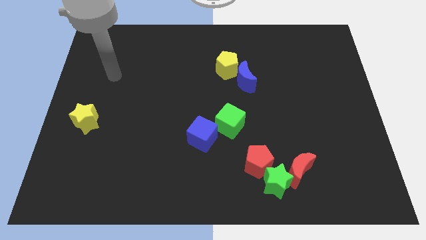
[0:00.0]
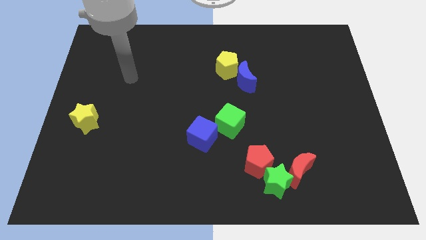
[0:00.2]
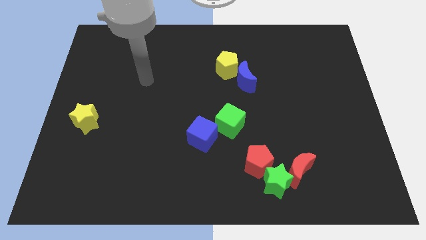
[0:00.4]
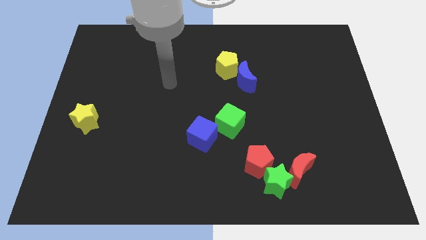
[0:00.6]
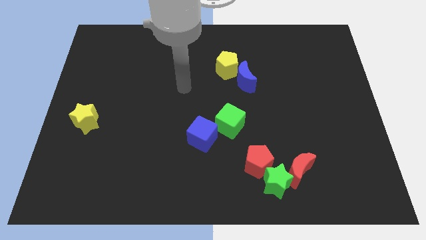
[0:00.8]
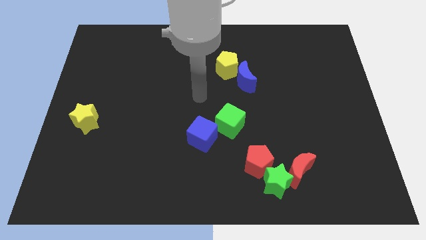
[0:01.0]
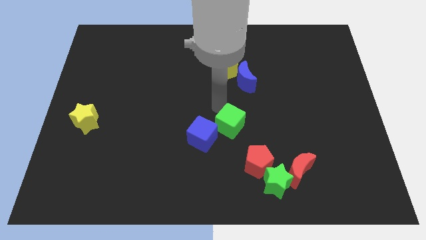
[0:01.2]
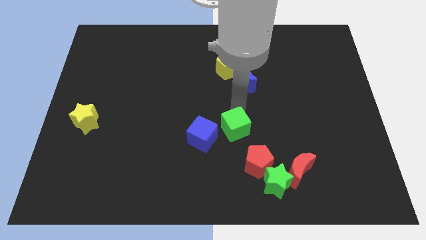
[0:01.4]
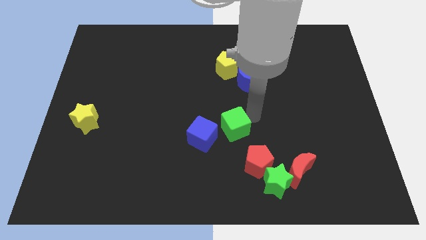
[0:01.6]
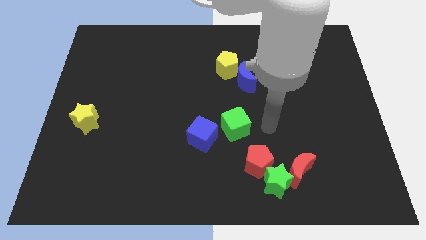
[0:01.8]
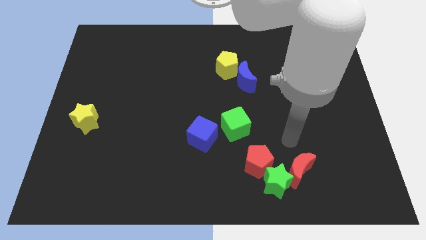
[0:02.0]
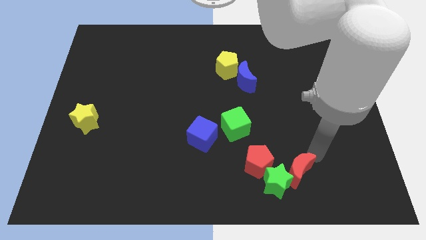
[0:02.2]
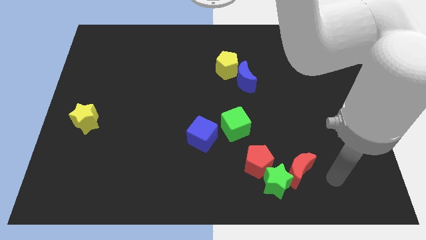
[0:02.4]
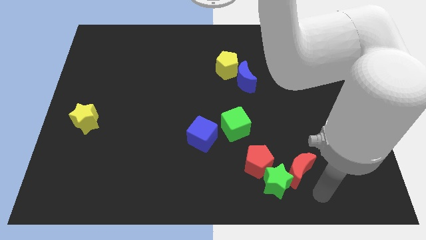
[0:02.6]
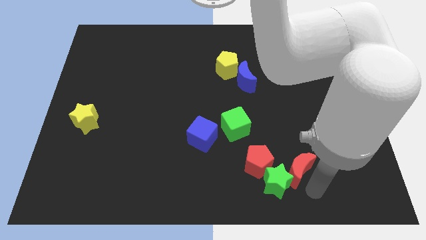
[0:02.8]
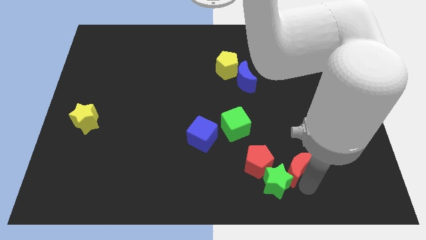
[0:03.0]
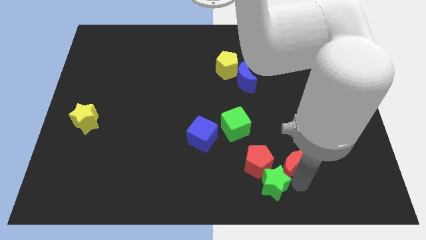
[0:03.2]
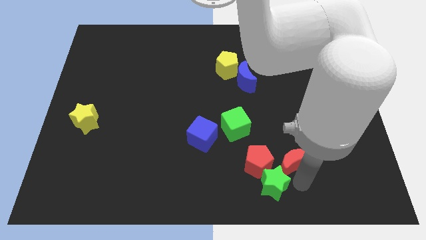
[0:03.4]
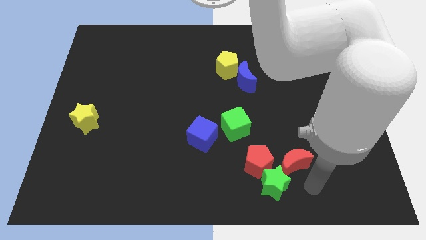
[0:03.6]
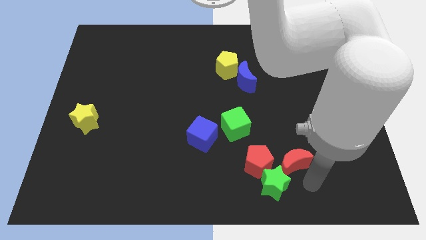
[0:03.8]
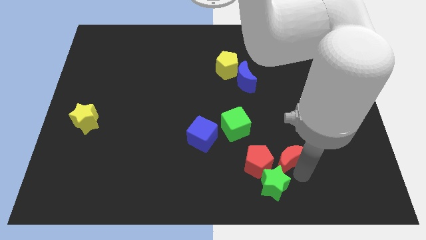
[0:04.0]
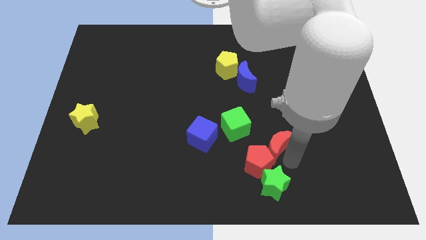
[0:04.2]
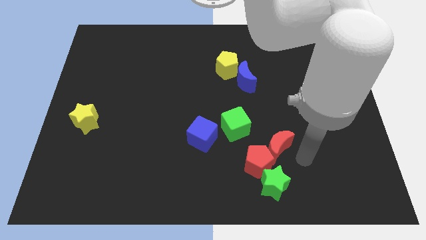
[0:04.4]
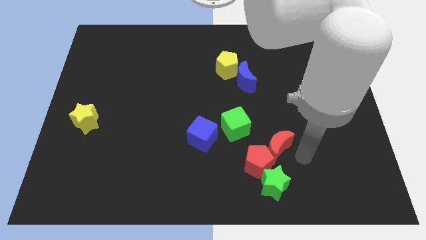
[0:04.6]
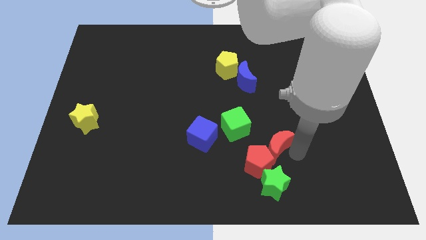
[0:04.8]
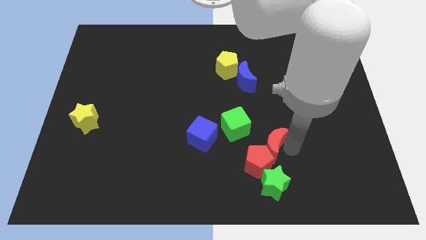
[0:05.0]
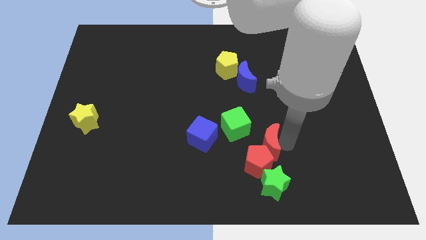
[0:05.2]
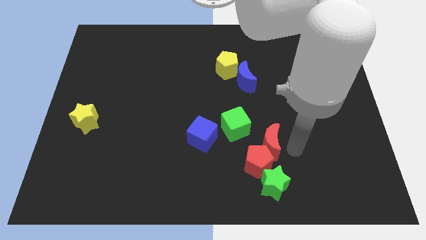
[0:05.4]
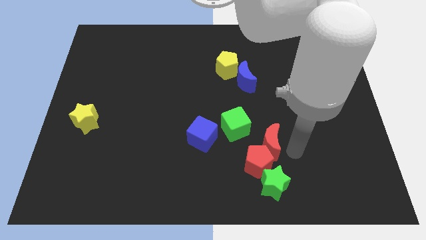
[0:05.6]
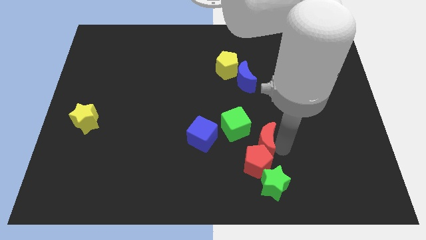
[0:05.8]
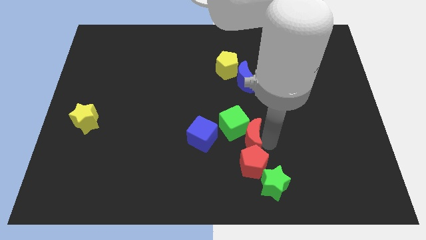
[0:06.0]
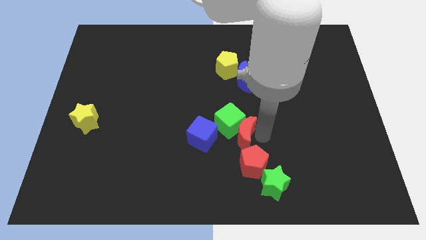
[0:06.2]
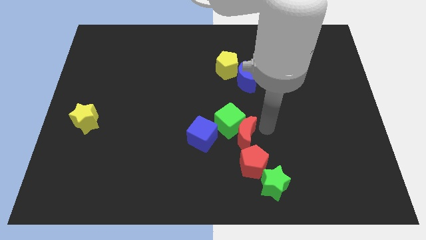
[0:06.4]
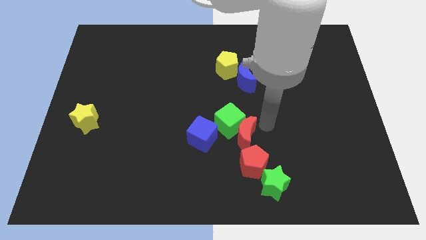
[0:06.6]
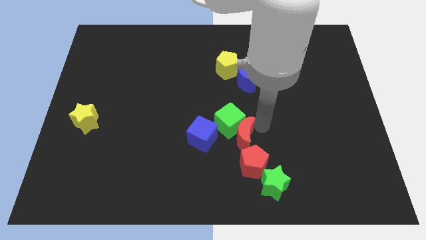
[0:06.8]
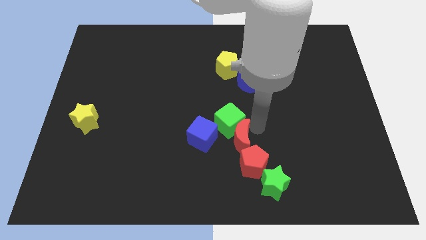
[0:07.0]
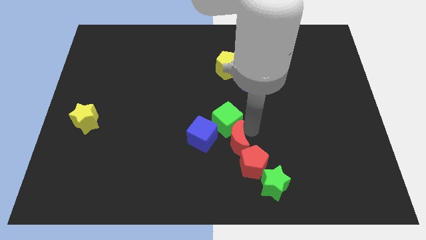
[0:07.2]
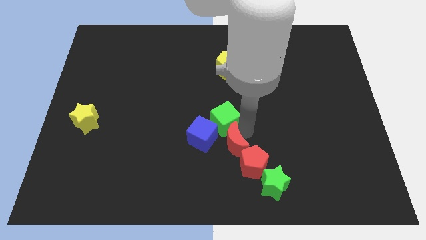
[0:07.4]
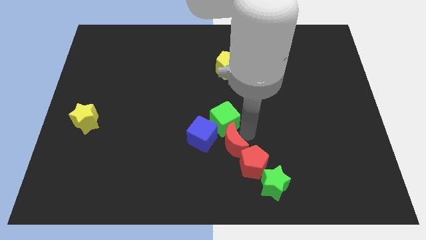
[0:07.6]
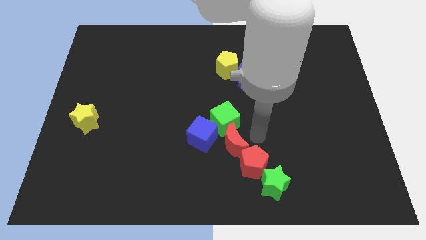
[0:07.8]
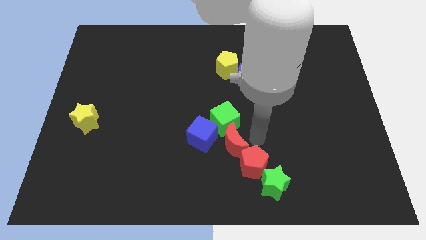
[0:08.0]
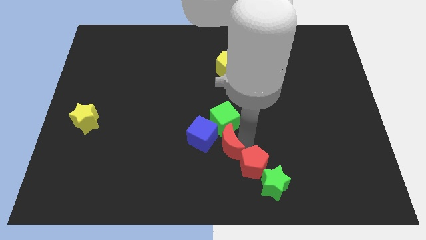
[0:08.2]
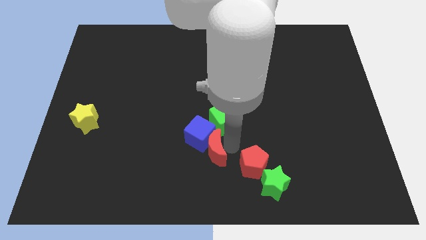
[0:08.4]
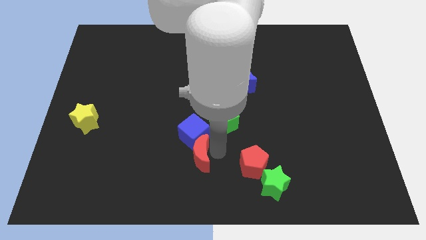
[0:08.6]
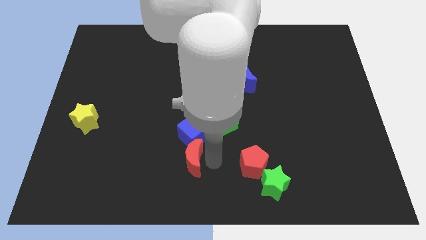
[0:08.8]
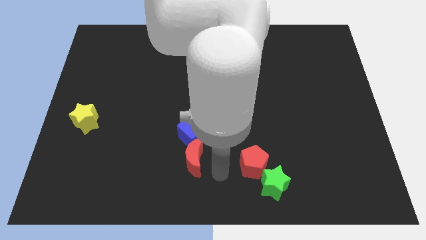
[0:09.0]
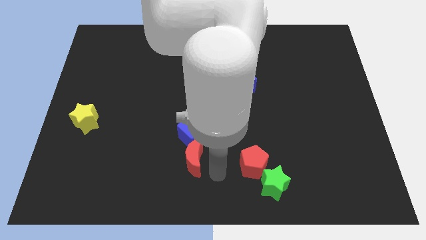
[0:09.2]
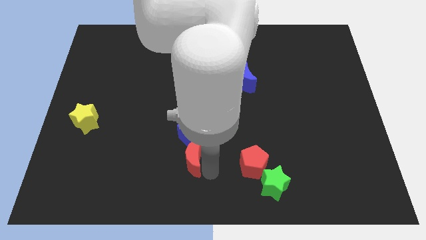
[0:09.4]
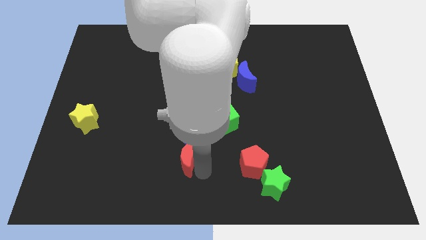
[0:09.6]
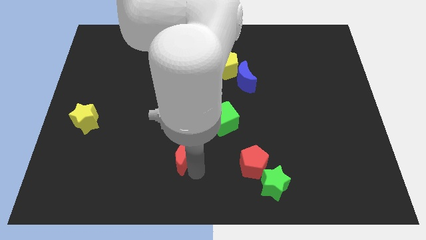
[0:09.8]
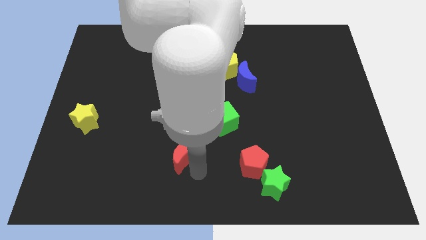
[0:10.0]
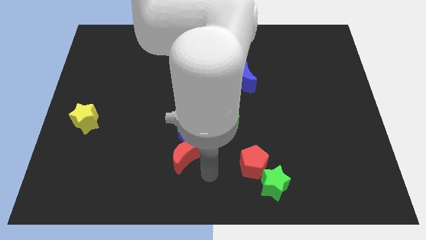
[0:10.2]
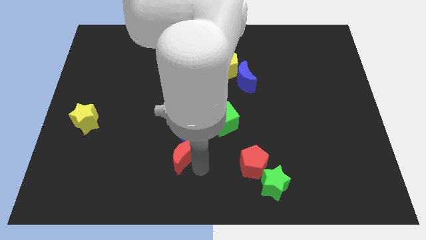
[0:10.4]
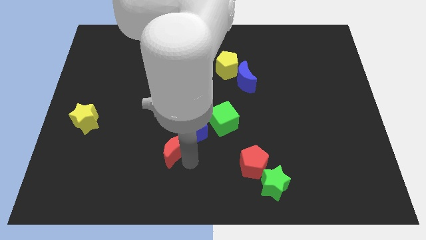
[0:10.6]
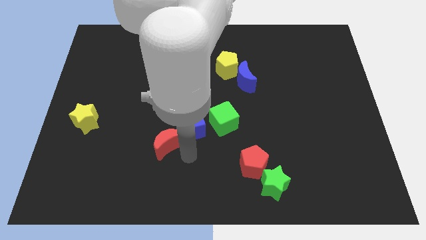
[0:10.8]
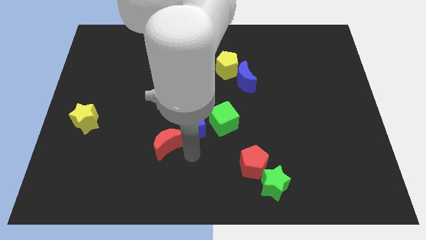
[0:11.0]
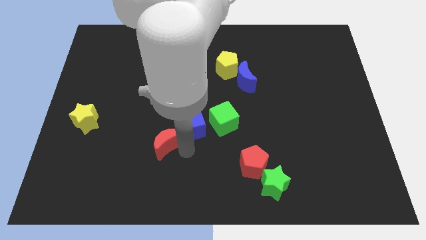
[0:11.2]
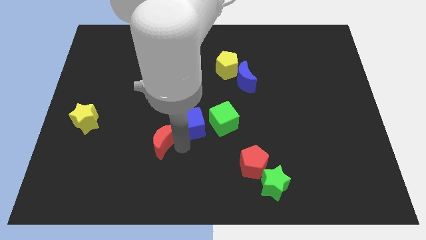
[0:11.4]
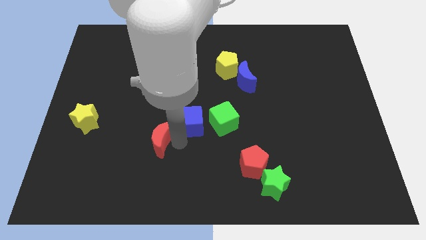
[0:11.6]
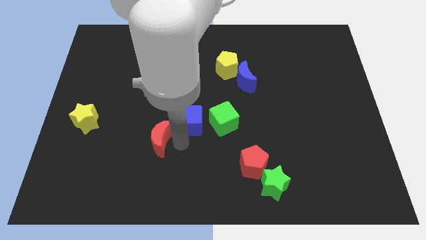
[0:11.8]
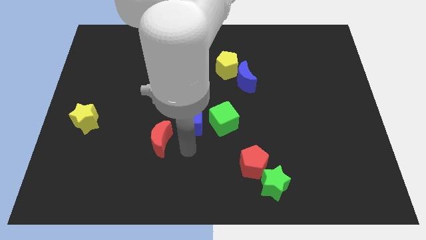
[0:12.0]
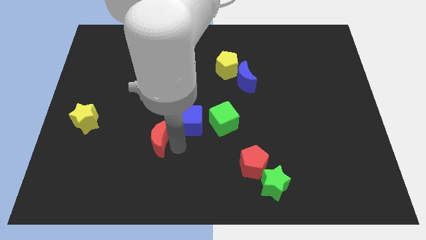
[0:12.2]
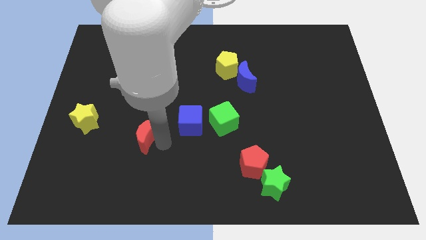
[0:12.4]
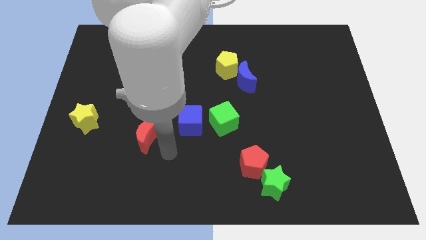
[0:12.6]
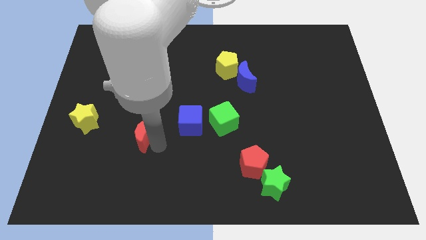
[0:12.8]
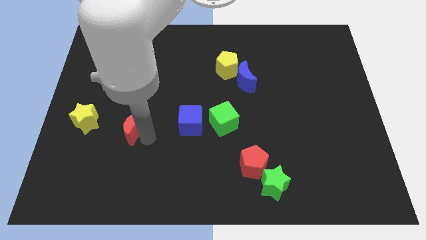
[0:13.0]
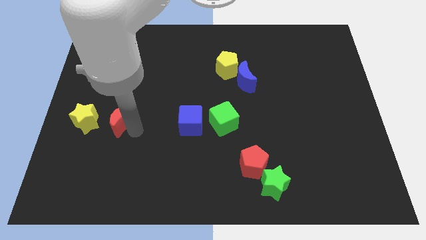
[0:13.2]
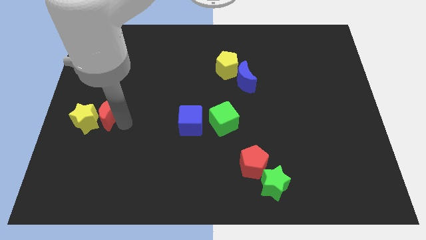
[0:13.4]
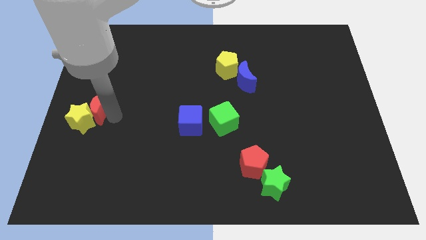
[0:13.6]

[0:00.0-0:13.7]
put the red moon to the left side
